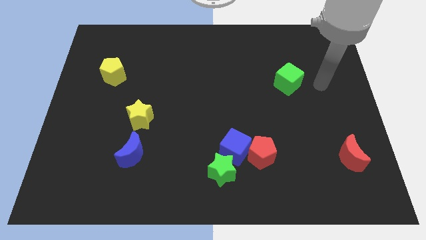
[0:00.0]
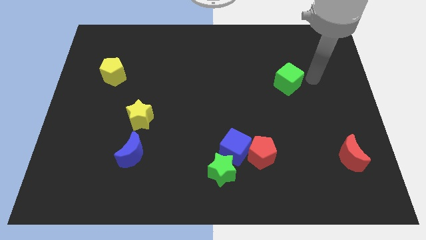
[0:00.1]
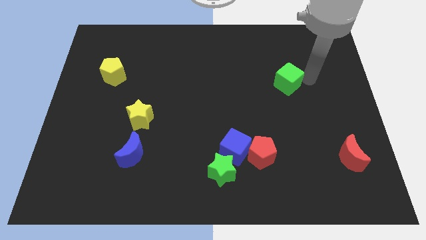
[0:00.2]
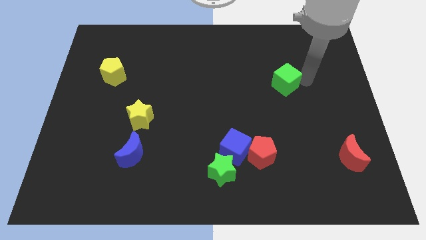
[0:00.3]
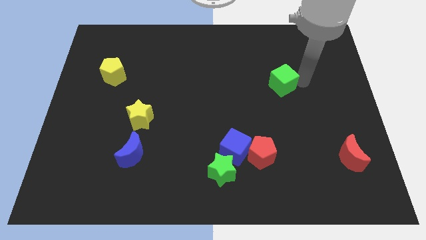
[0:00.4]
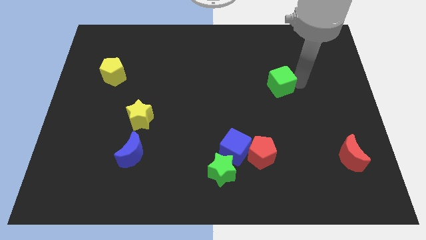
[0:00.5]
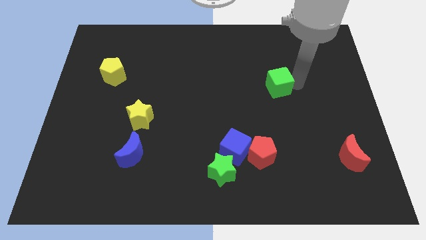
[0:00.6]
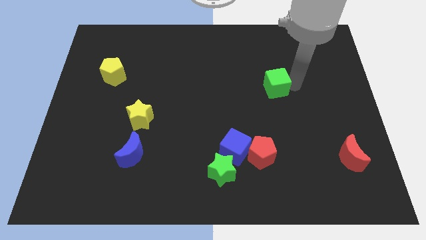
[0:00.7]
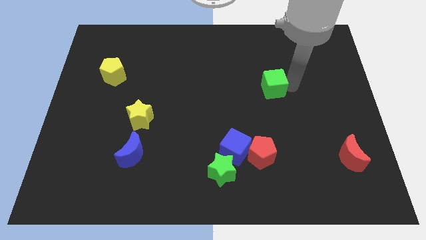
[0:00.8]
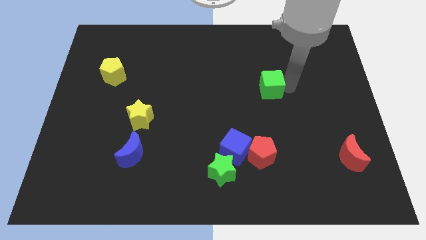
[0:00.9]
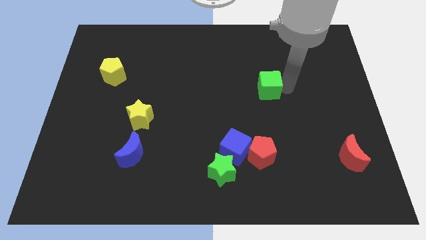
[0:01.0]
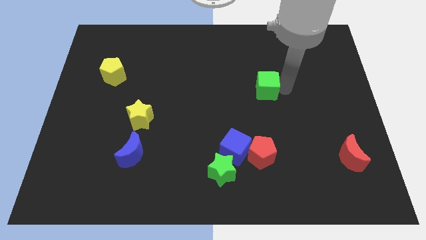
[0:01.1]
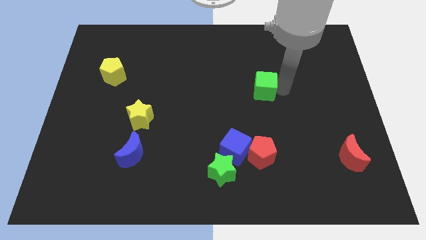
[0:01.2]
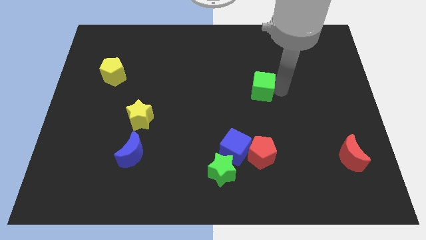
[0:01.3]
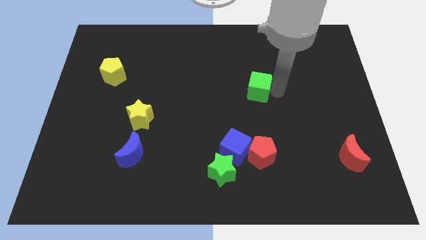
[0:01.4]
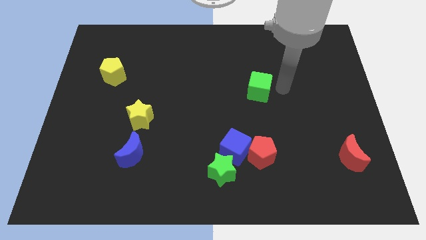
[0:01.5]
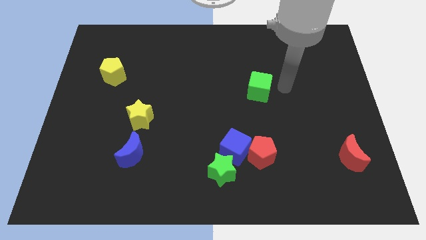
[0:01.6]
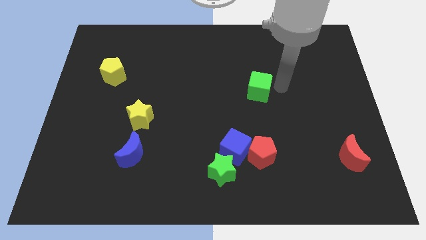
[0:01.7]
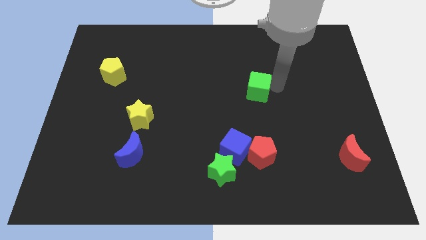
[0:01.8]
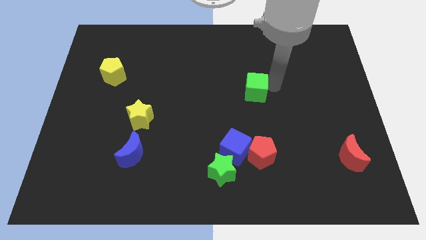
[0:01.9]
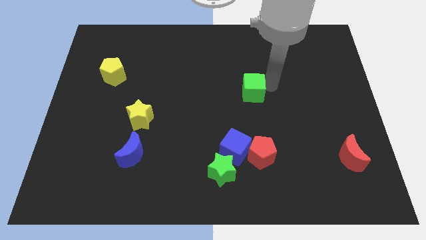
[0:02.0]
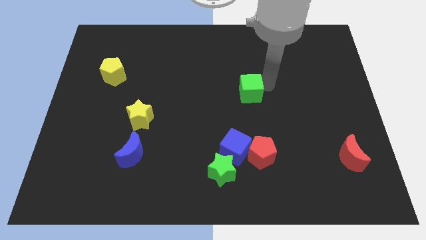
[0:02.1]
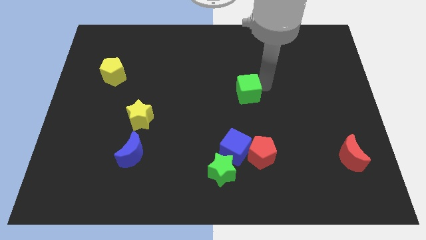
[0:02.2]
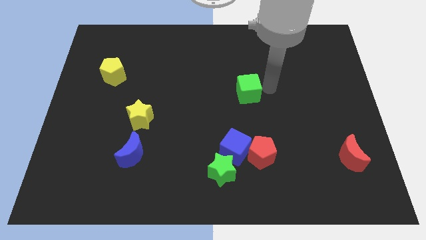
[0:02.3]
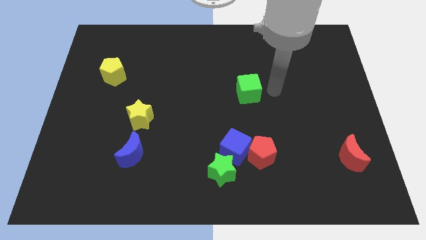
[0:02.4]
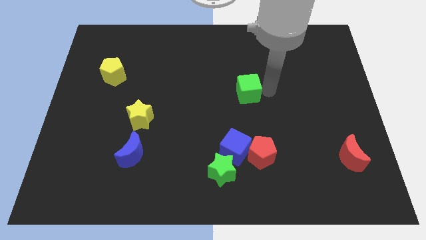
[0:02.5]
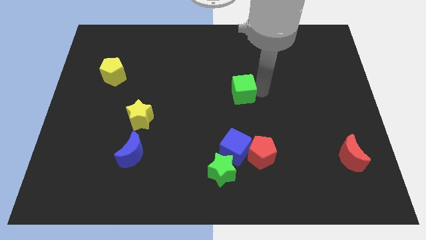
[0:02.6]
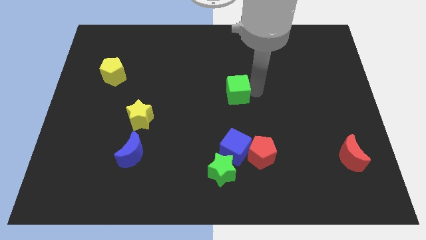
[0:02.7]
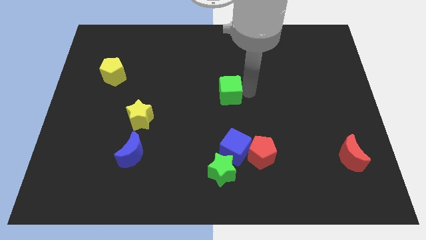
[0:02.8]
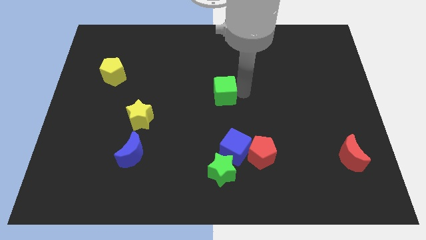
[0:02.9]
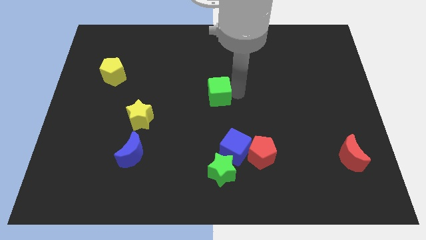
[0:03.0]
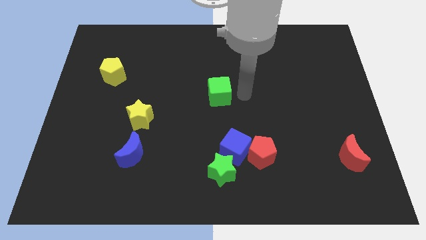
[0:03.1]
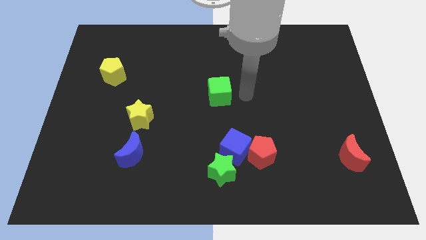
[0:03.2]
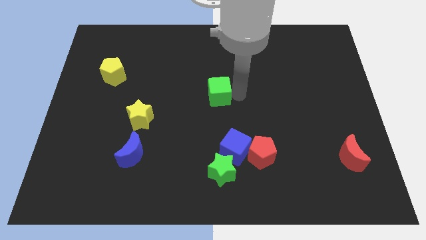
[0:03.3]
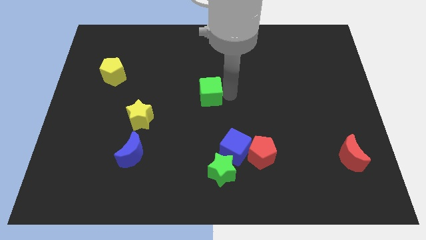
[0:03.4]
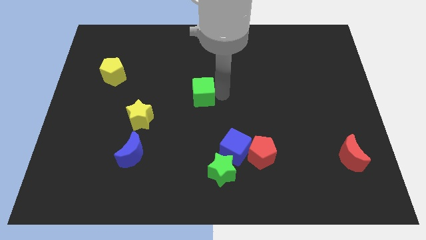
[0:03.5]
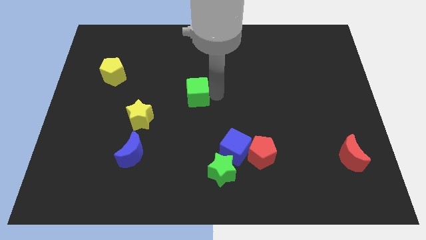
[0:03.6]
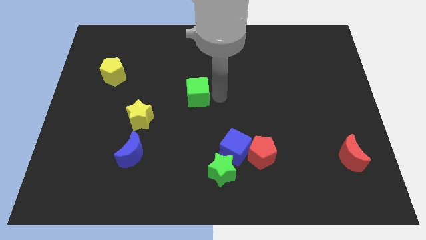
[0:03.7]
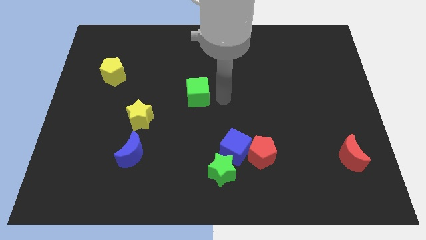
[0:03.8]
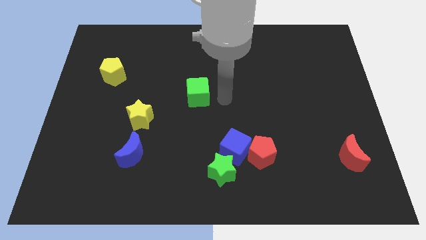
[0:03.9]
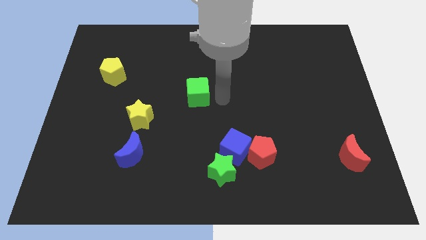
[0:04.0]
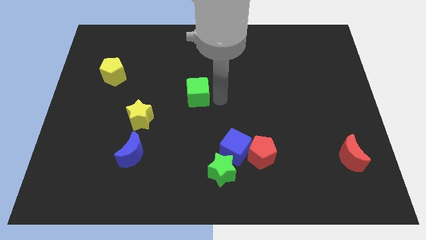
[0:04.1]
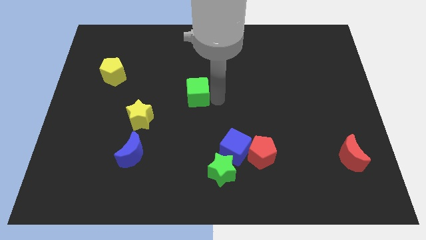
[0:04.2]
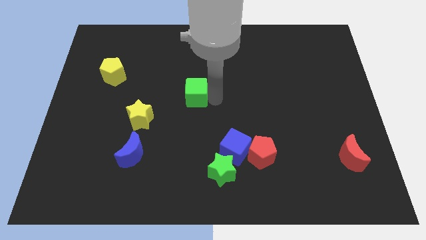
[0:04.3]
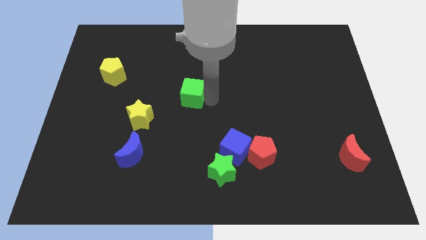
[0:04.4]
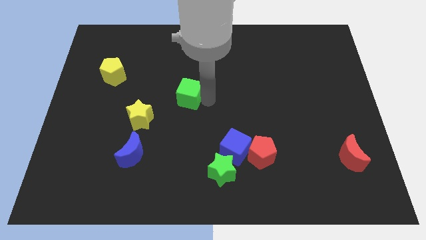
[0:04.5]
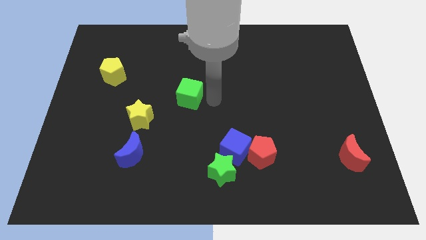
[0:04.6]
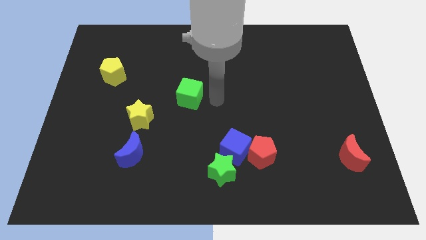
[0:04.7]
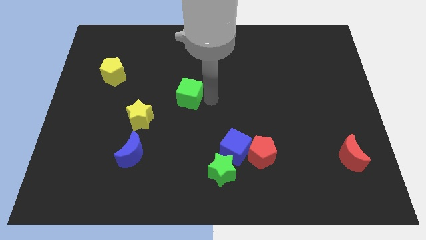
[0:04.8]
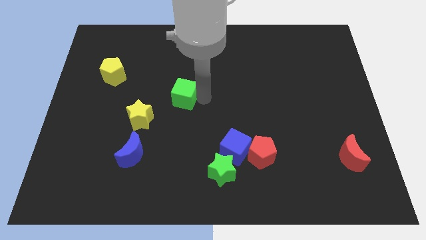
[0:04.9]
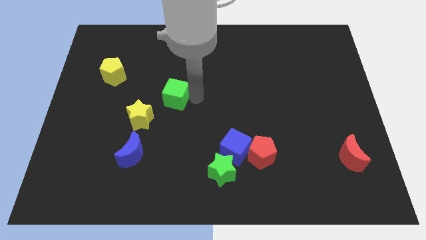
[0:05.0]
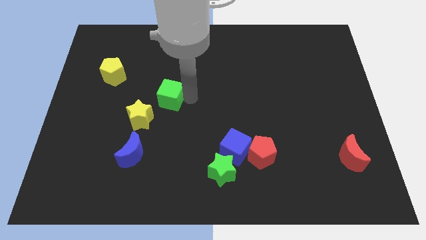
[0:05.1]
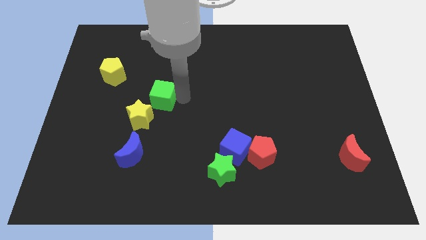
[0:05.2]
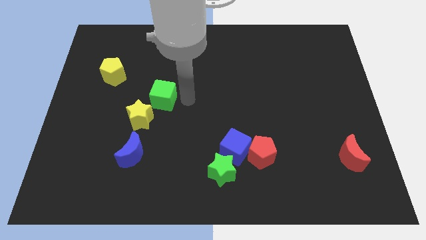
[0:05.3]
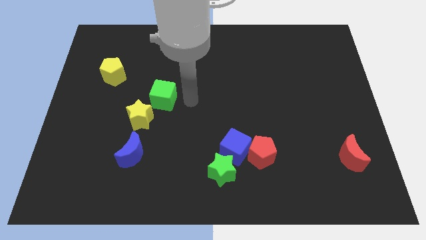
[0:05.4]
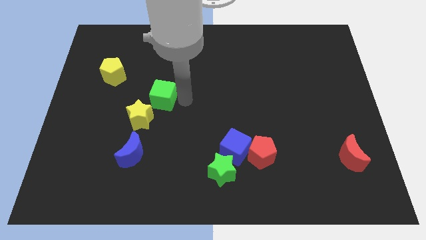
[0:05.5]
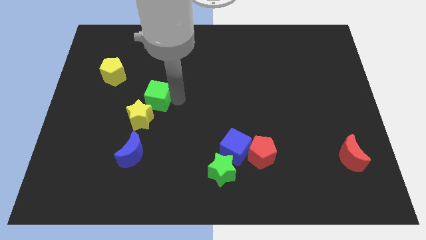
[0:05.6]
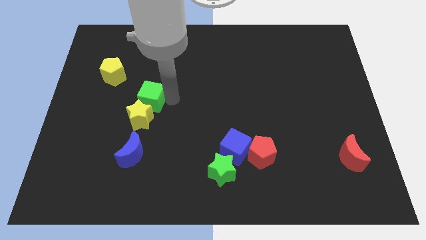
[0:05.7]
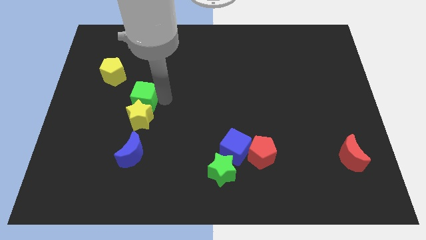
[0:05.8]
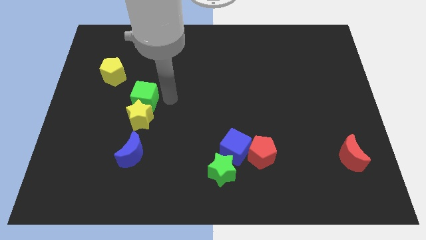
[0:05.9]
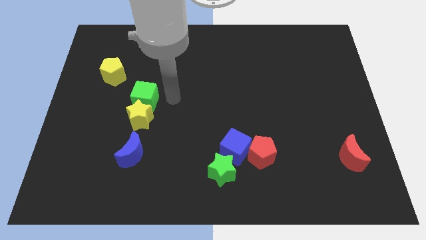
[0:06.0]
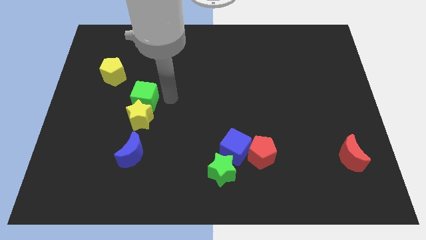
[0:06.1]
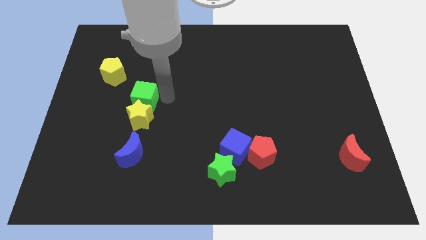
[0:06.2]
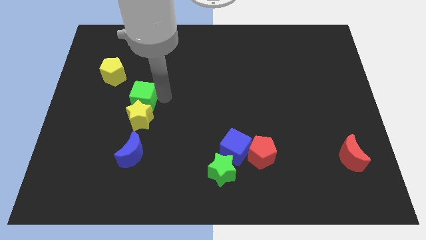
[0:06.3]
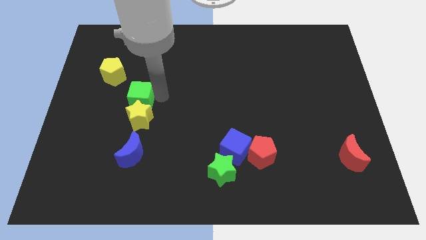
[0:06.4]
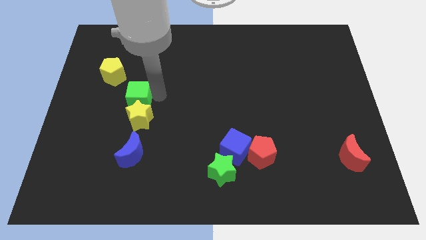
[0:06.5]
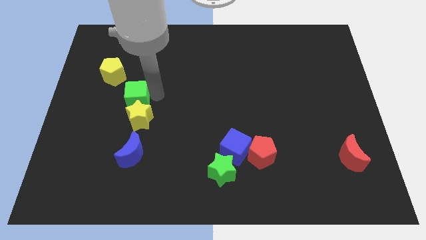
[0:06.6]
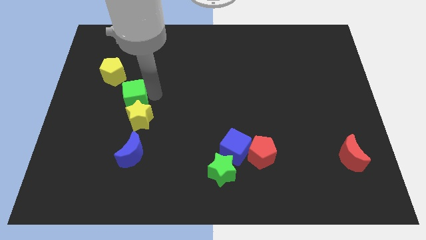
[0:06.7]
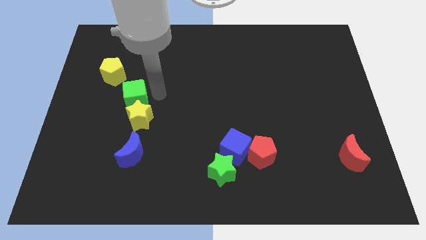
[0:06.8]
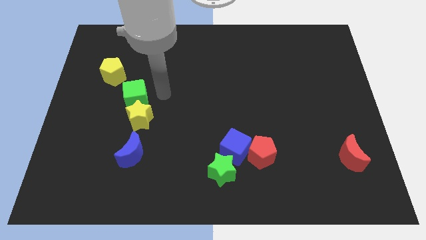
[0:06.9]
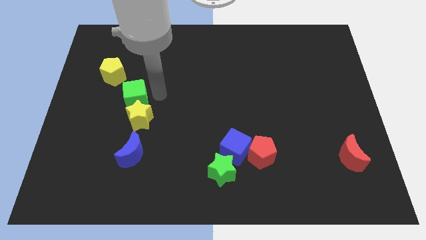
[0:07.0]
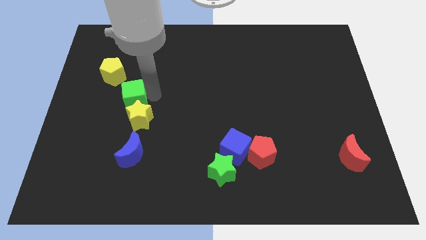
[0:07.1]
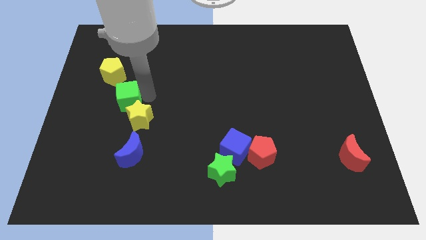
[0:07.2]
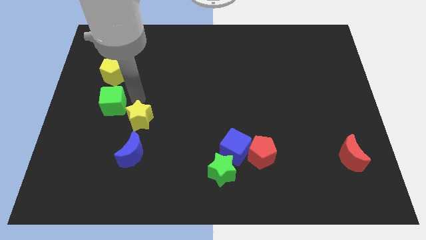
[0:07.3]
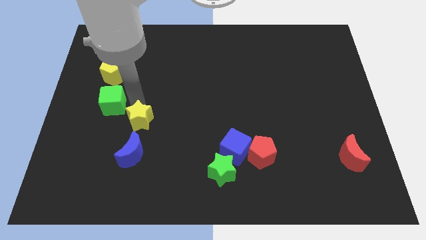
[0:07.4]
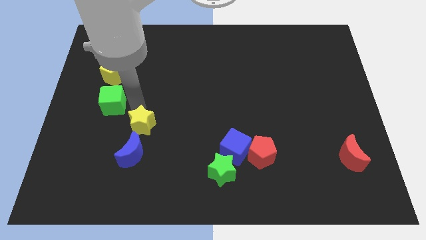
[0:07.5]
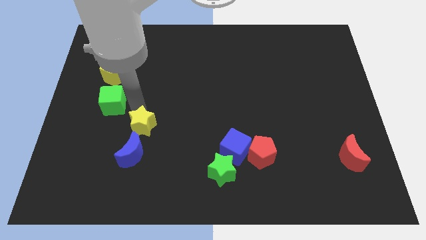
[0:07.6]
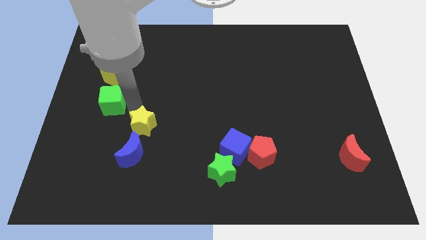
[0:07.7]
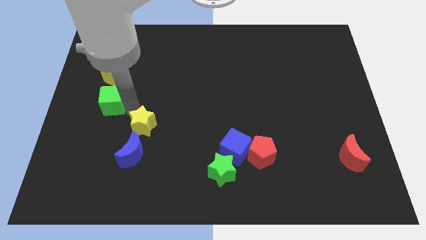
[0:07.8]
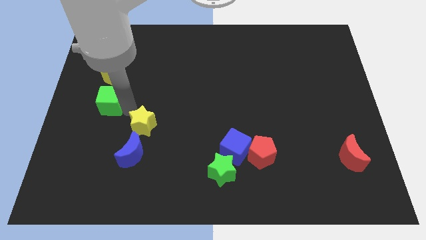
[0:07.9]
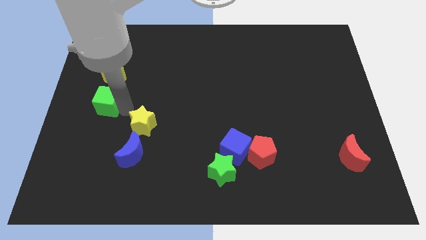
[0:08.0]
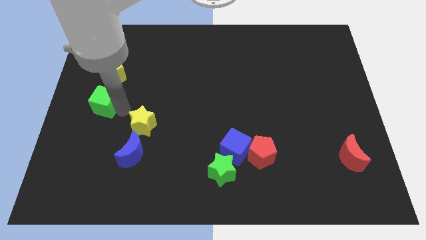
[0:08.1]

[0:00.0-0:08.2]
move the green cube to the left side of the board
